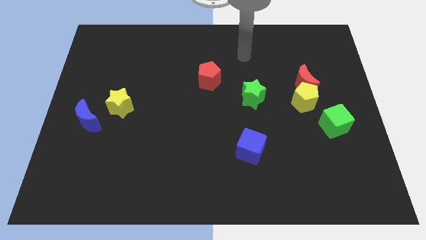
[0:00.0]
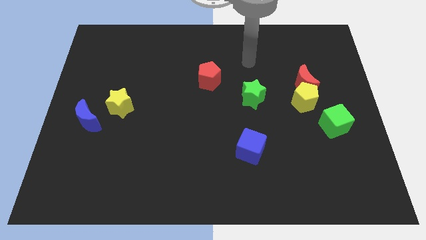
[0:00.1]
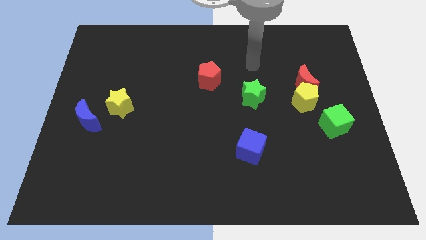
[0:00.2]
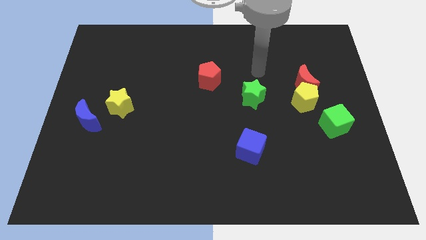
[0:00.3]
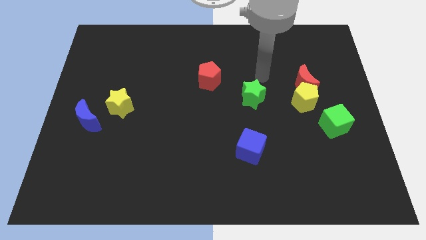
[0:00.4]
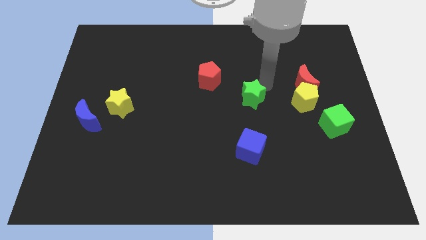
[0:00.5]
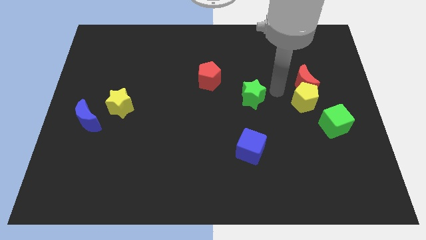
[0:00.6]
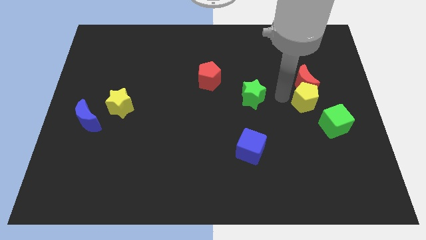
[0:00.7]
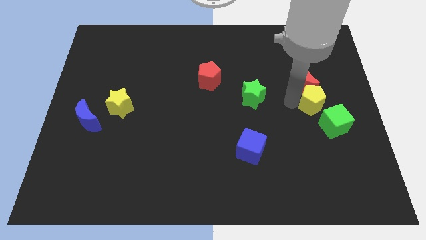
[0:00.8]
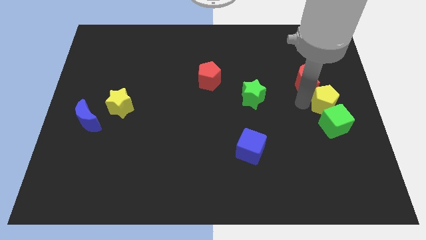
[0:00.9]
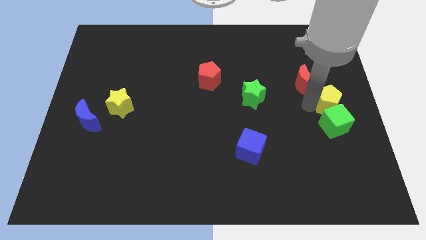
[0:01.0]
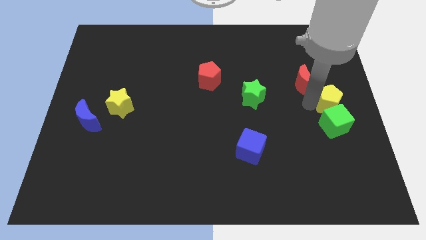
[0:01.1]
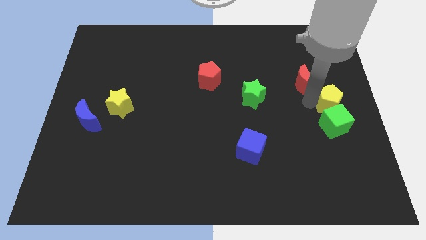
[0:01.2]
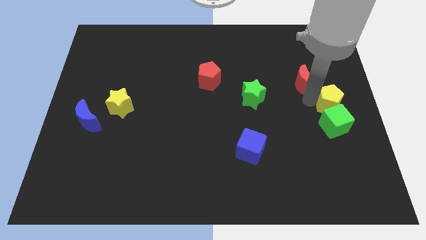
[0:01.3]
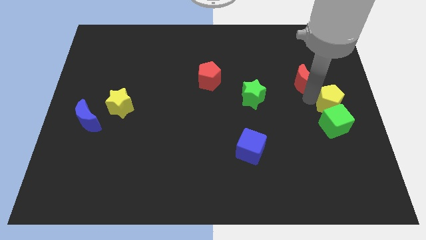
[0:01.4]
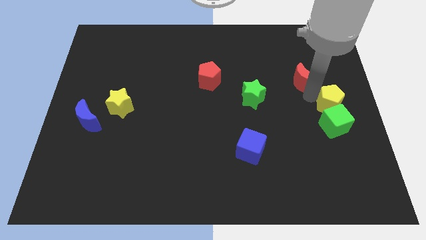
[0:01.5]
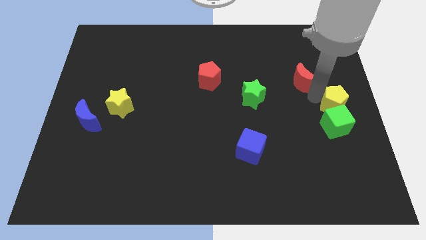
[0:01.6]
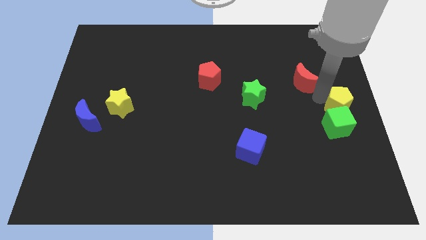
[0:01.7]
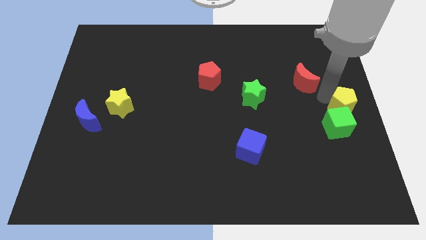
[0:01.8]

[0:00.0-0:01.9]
pull the red moon apart from the yellow pentagon

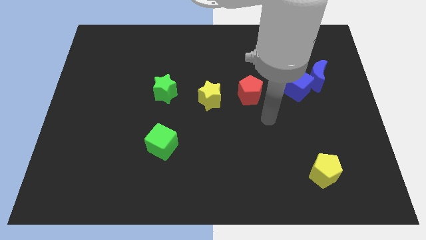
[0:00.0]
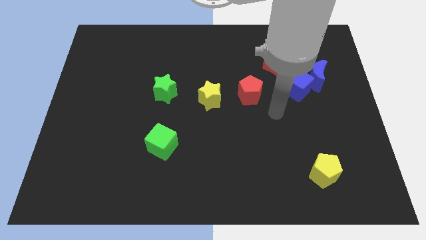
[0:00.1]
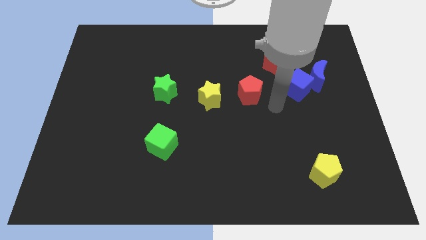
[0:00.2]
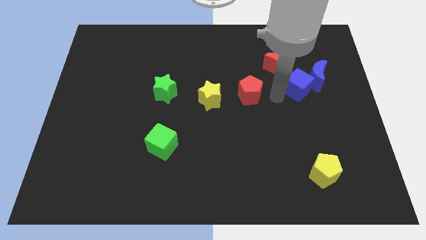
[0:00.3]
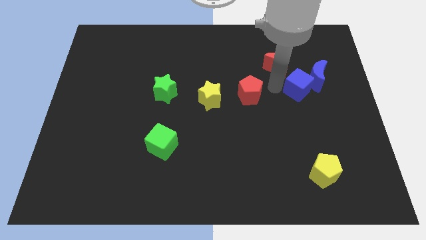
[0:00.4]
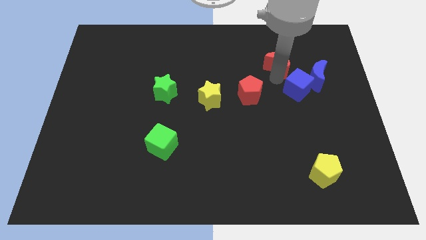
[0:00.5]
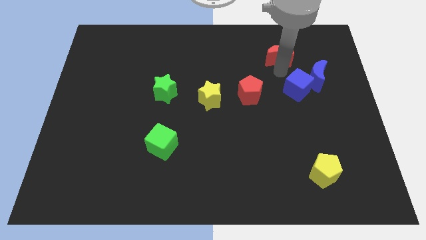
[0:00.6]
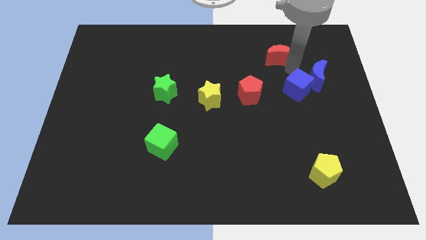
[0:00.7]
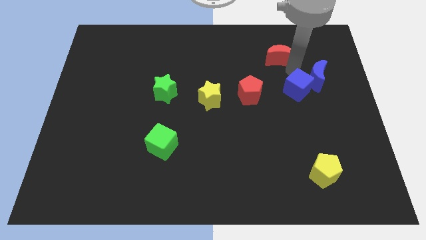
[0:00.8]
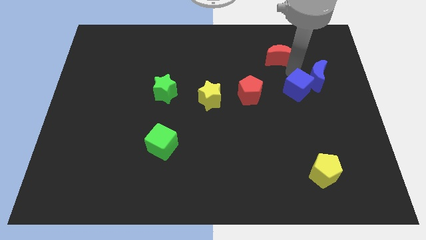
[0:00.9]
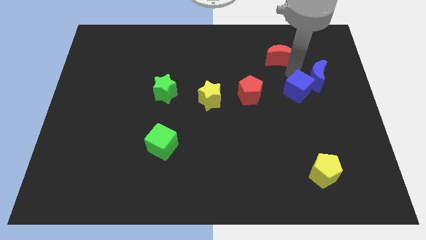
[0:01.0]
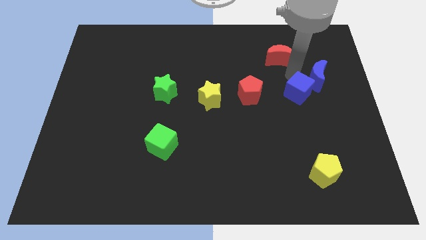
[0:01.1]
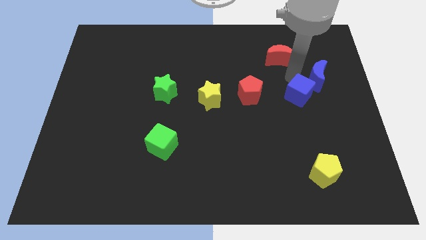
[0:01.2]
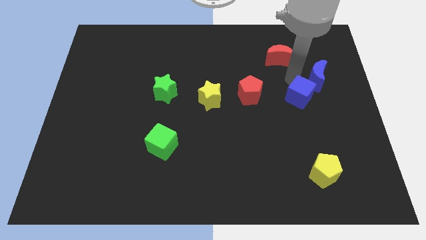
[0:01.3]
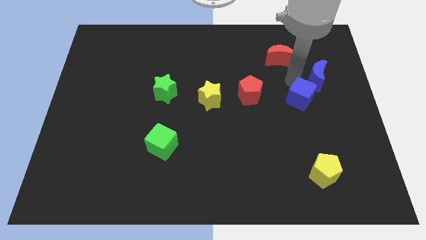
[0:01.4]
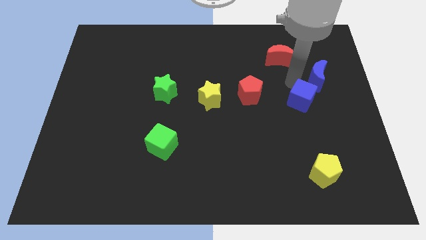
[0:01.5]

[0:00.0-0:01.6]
pull the blue cube apart from the blue moon and red moon

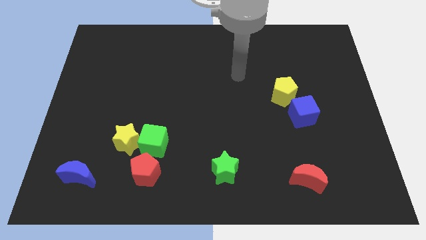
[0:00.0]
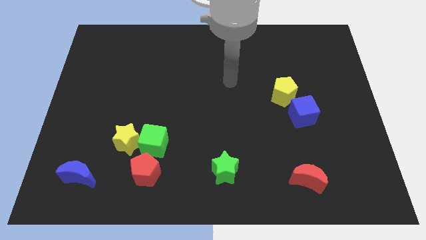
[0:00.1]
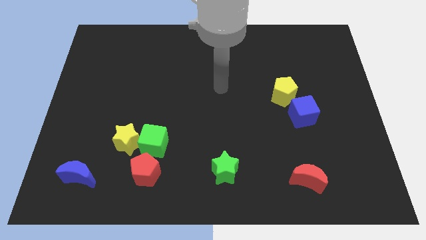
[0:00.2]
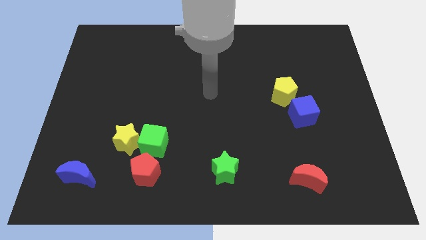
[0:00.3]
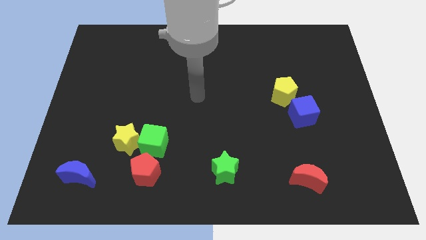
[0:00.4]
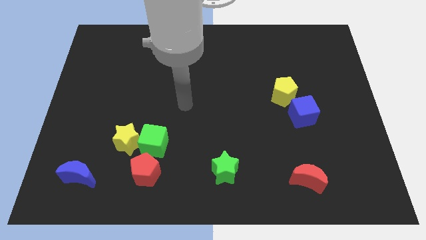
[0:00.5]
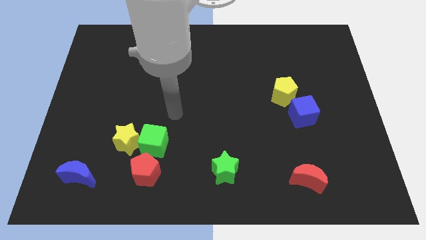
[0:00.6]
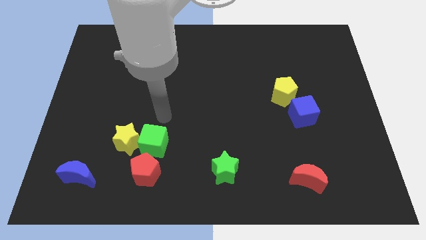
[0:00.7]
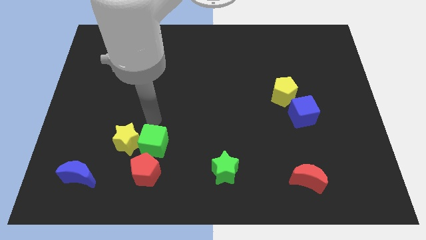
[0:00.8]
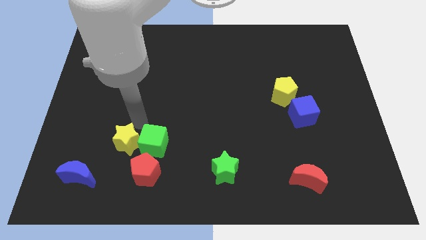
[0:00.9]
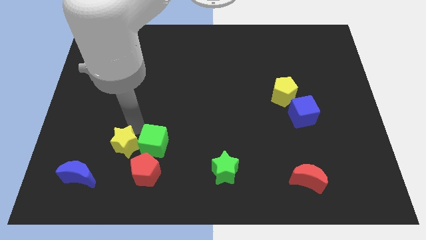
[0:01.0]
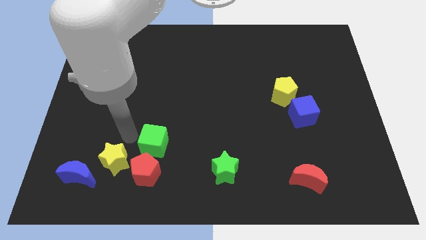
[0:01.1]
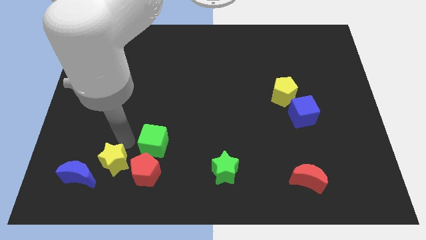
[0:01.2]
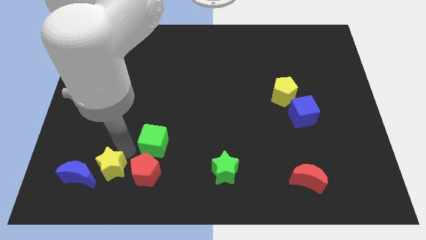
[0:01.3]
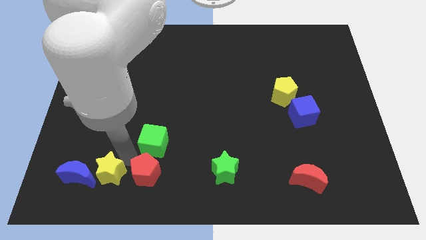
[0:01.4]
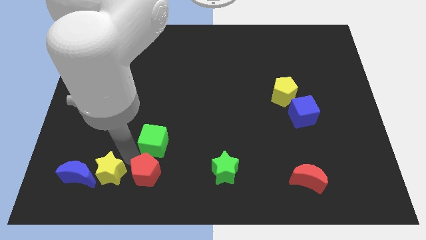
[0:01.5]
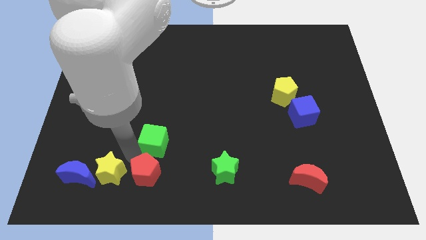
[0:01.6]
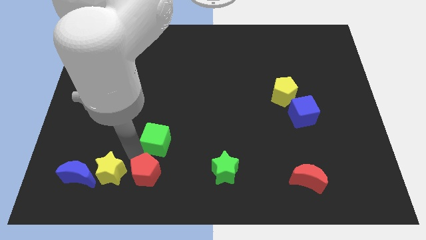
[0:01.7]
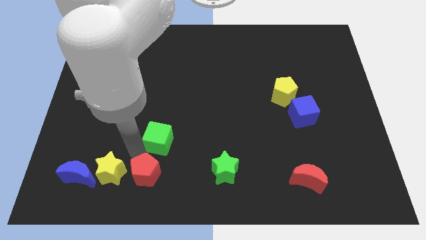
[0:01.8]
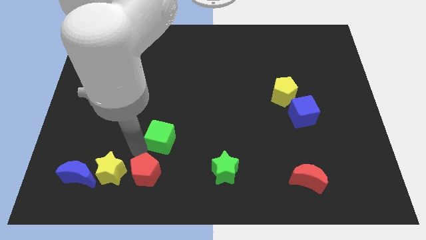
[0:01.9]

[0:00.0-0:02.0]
separate the green cube from the yellow star and red pentagon

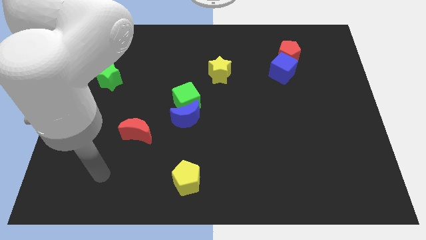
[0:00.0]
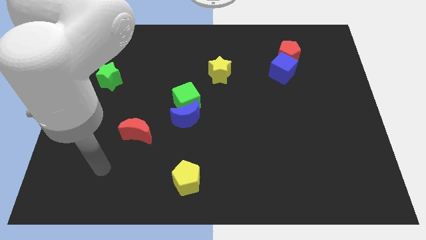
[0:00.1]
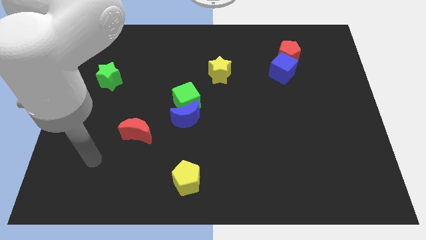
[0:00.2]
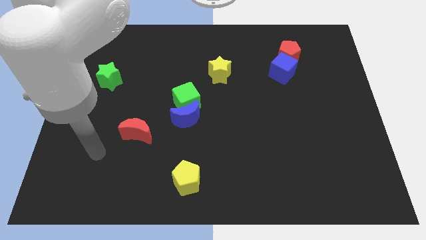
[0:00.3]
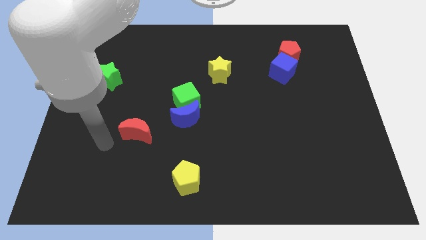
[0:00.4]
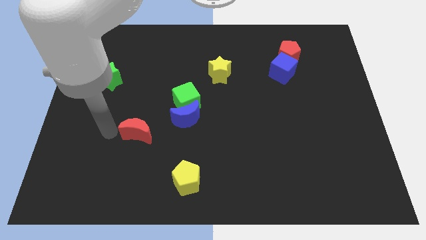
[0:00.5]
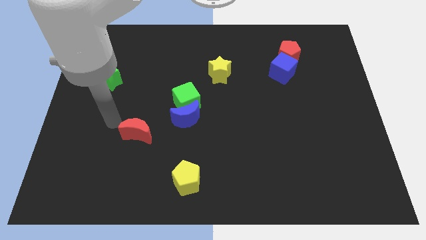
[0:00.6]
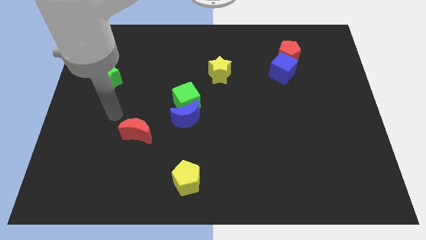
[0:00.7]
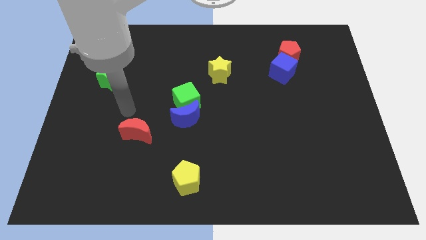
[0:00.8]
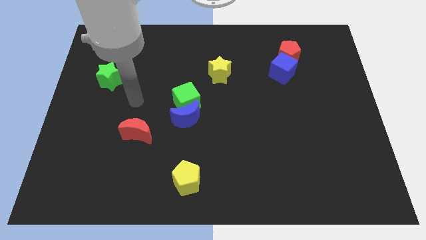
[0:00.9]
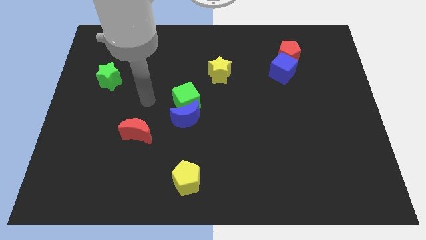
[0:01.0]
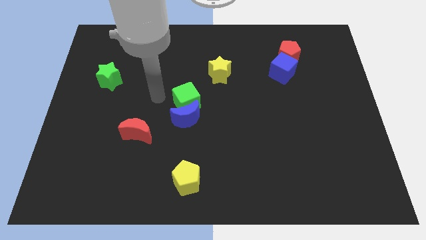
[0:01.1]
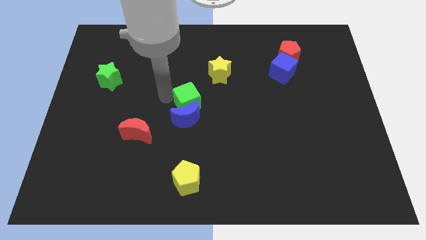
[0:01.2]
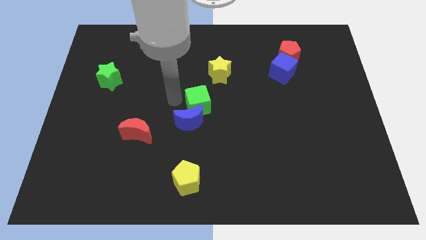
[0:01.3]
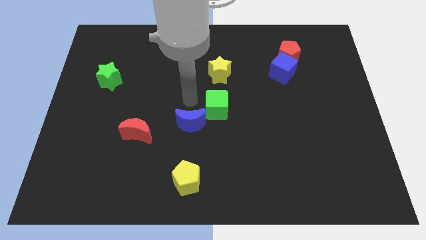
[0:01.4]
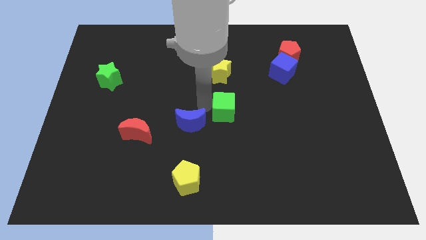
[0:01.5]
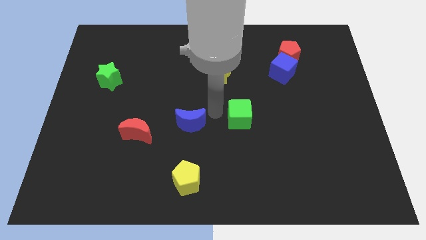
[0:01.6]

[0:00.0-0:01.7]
separate the blue moon from the green cube

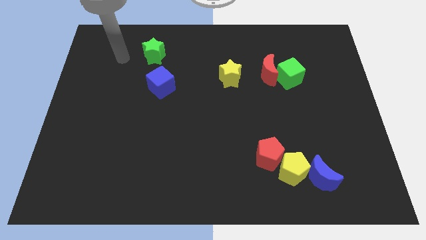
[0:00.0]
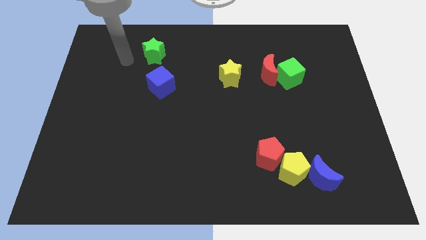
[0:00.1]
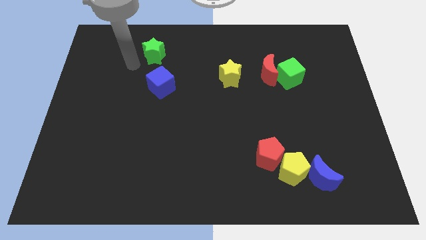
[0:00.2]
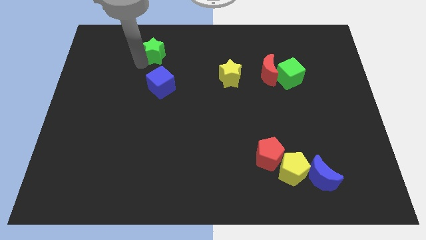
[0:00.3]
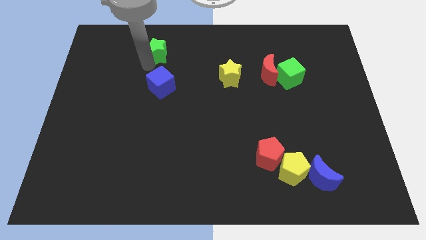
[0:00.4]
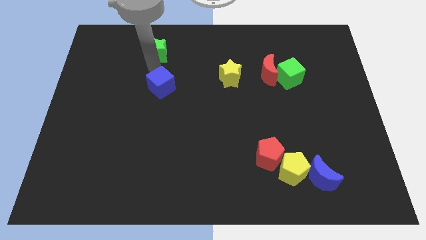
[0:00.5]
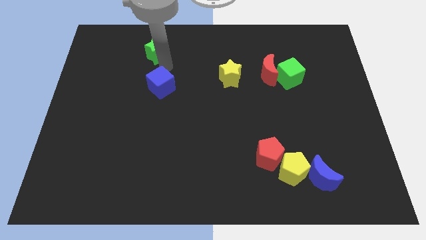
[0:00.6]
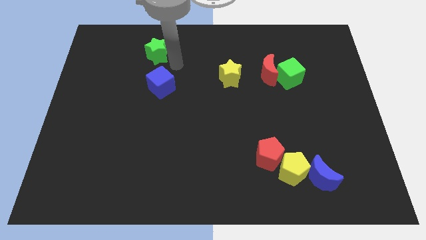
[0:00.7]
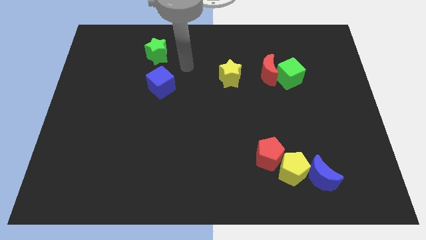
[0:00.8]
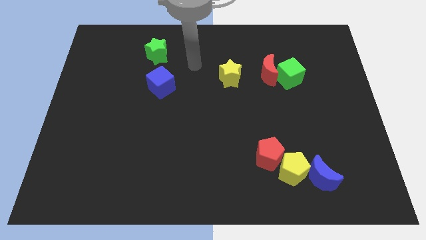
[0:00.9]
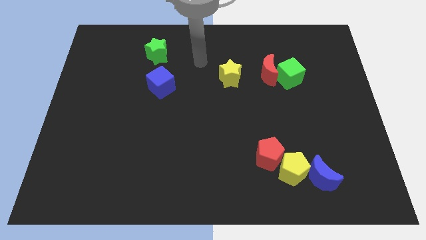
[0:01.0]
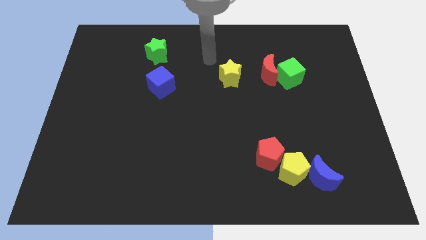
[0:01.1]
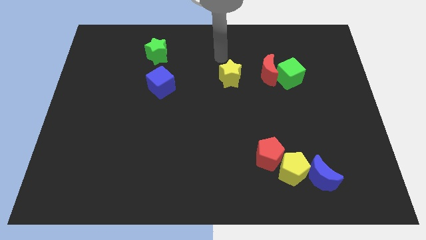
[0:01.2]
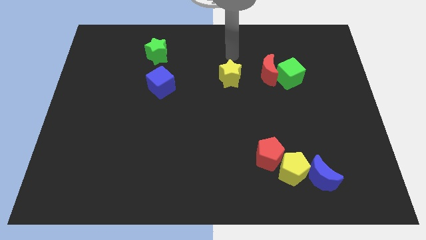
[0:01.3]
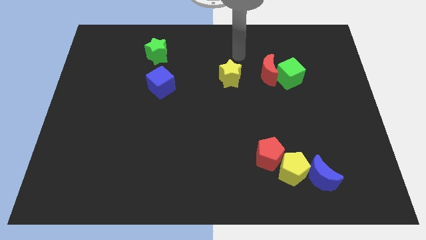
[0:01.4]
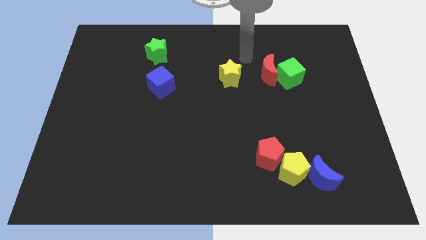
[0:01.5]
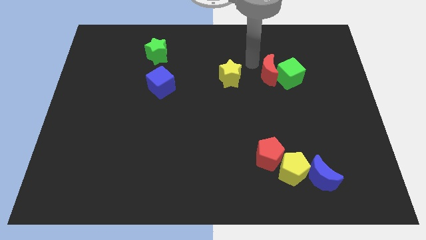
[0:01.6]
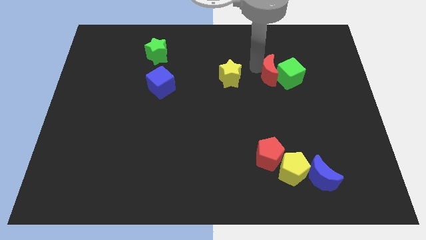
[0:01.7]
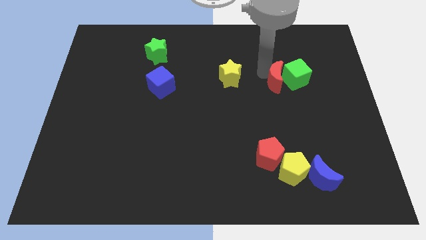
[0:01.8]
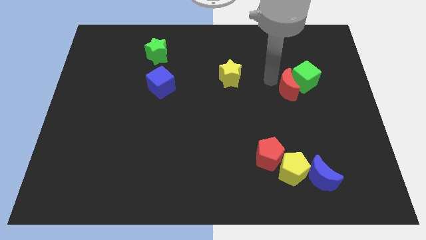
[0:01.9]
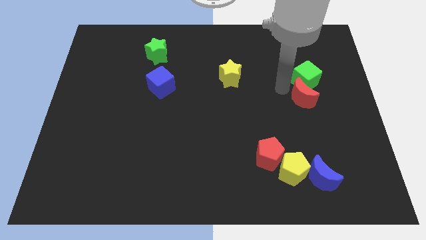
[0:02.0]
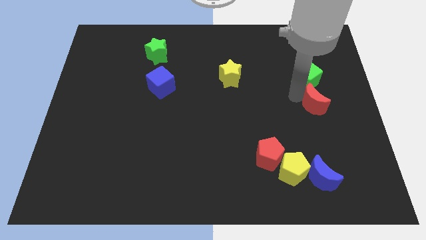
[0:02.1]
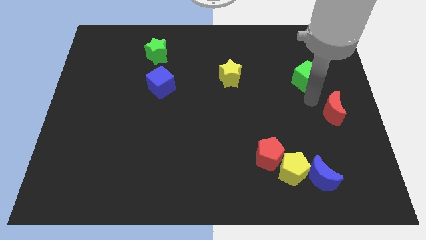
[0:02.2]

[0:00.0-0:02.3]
separate the green cube from the red moon
